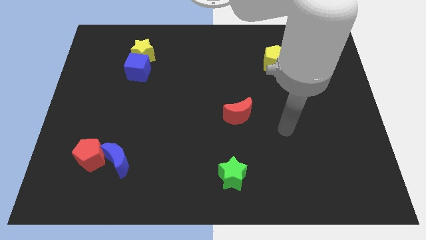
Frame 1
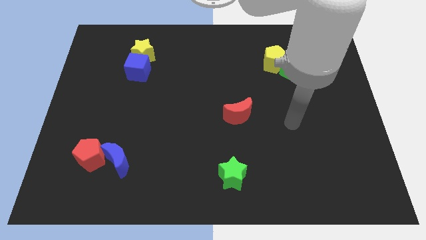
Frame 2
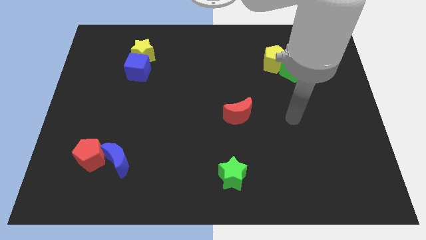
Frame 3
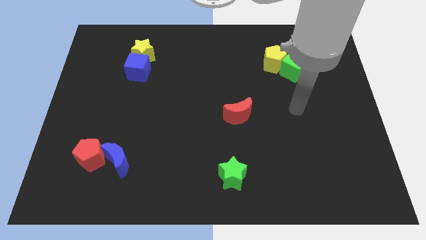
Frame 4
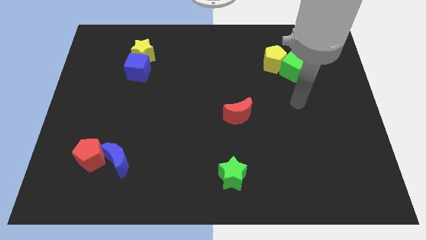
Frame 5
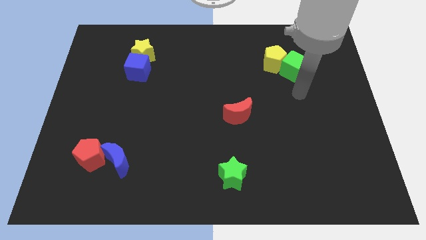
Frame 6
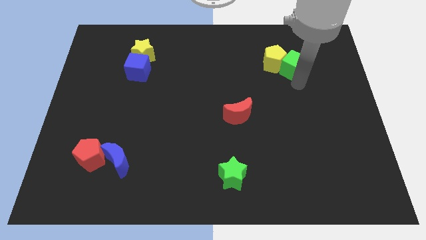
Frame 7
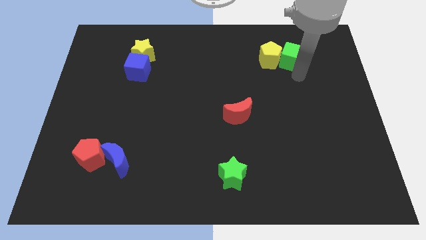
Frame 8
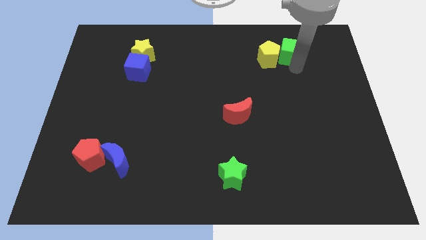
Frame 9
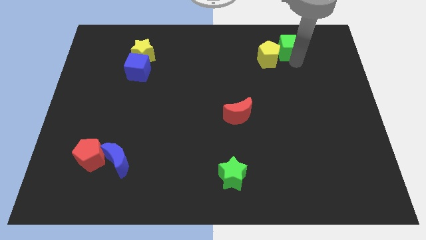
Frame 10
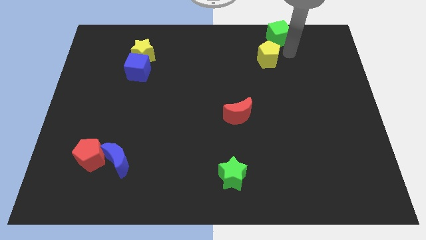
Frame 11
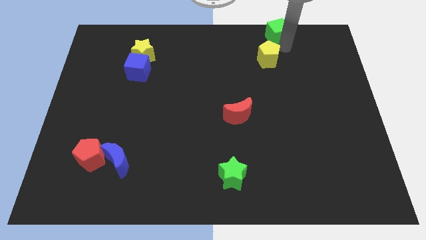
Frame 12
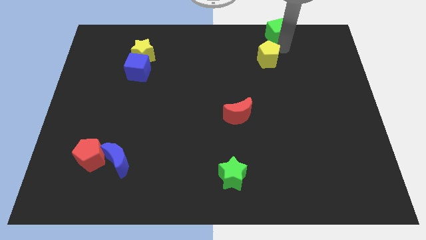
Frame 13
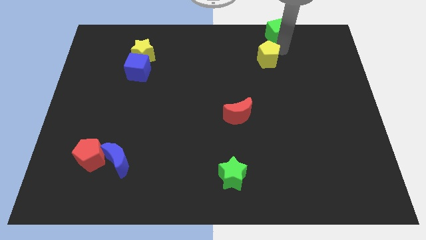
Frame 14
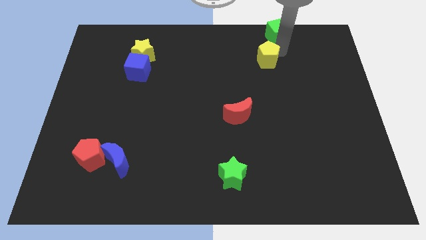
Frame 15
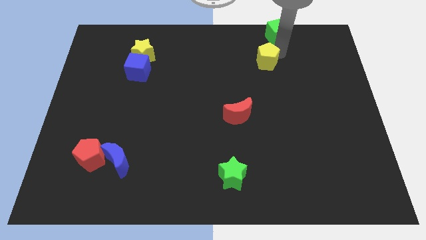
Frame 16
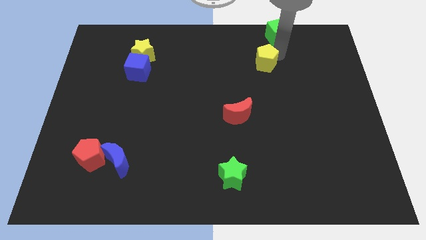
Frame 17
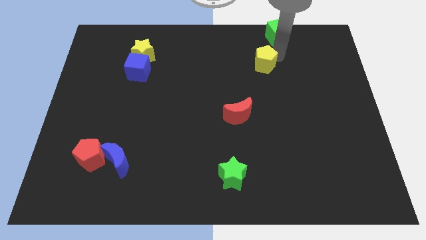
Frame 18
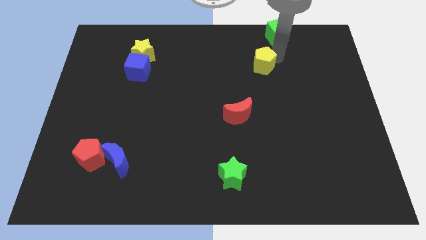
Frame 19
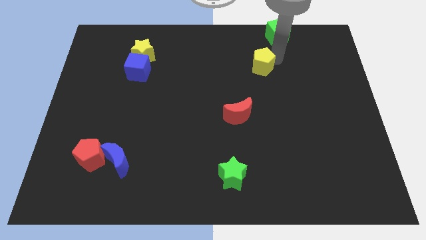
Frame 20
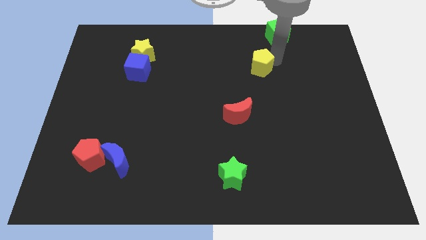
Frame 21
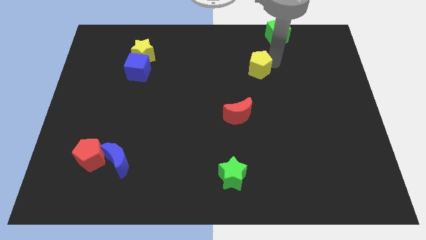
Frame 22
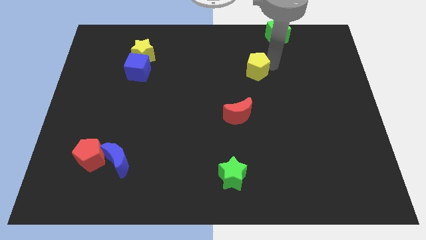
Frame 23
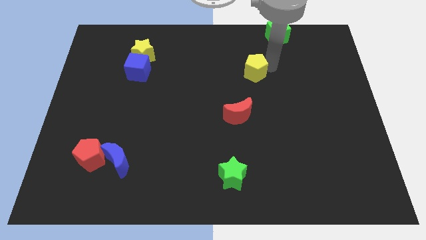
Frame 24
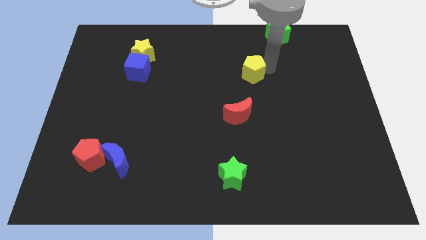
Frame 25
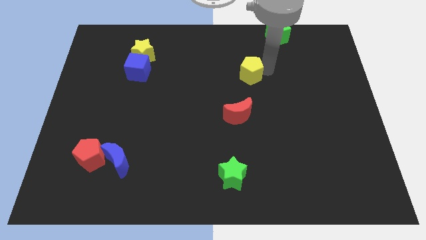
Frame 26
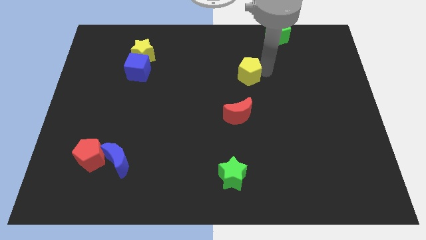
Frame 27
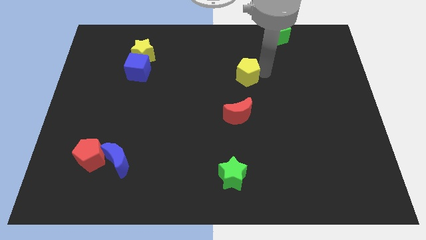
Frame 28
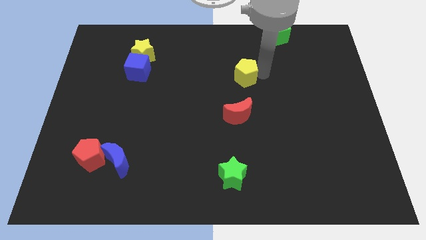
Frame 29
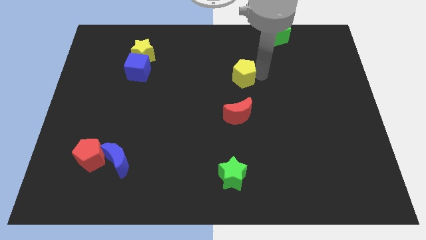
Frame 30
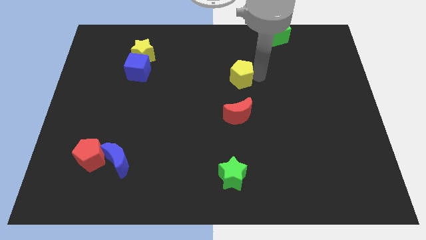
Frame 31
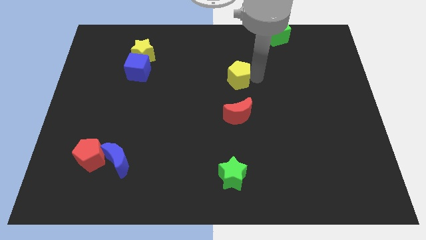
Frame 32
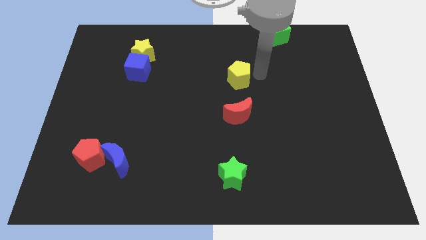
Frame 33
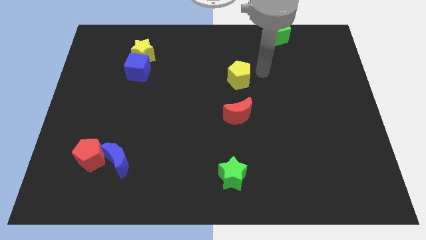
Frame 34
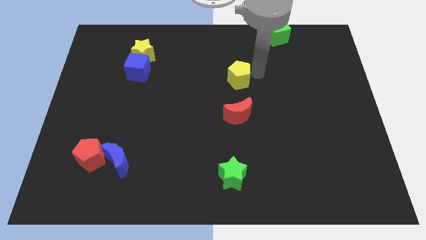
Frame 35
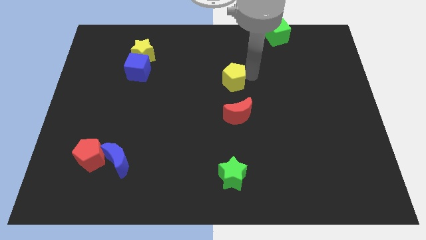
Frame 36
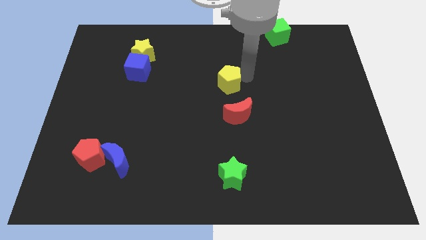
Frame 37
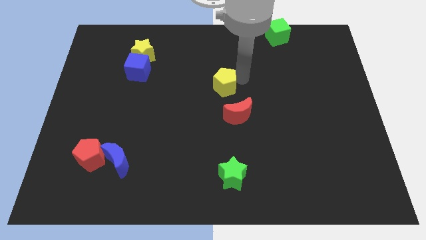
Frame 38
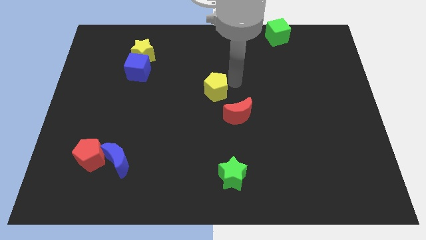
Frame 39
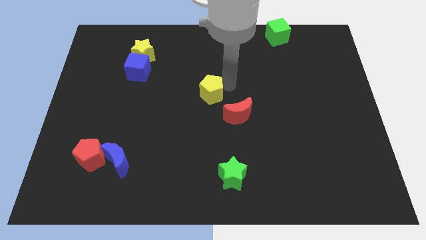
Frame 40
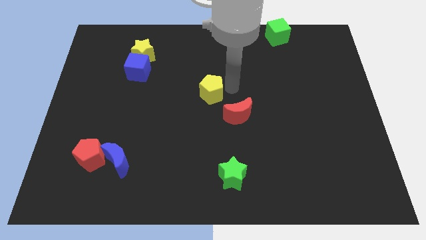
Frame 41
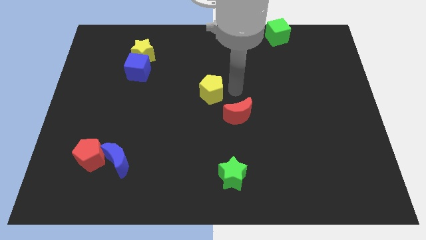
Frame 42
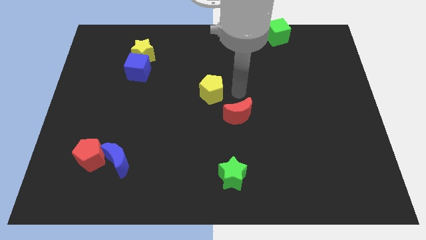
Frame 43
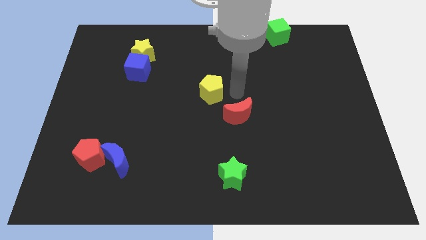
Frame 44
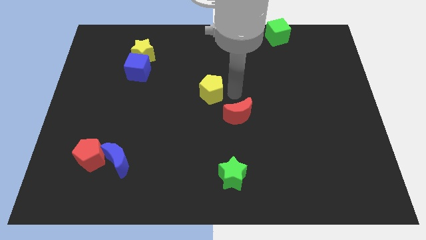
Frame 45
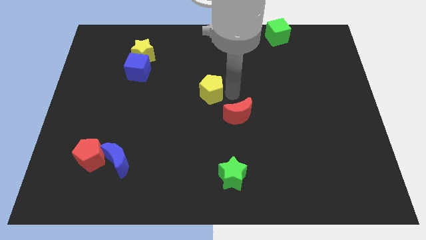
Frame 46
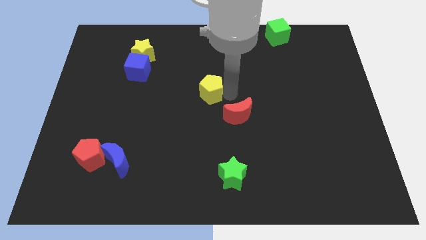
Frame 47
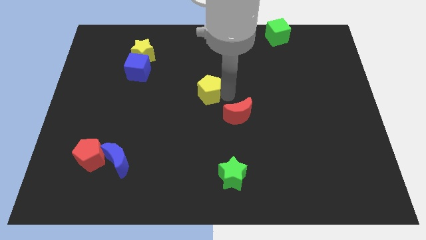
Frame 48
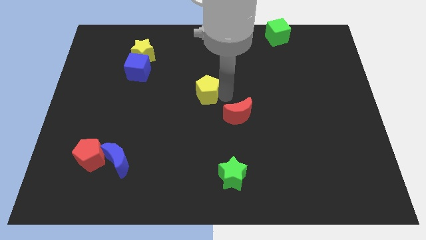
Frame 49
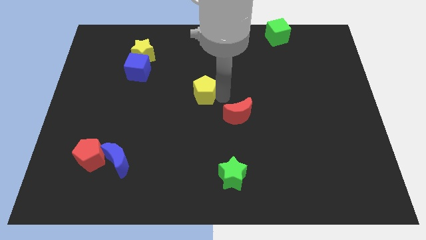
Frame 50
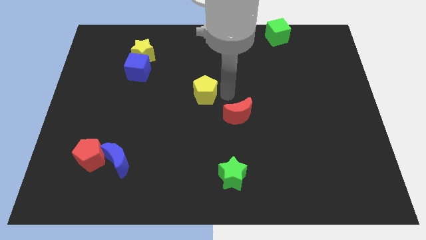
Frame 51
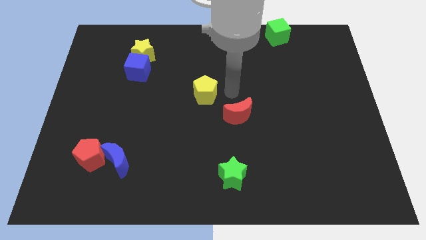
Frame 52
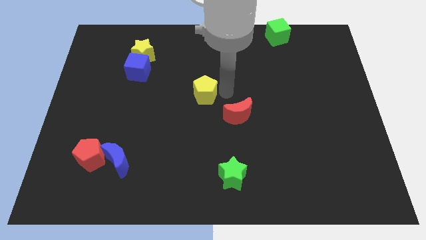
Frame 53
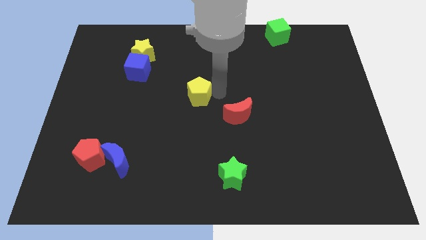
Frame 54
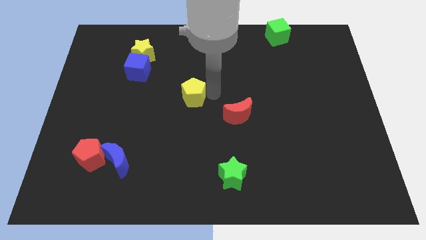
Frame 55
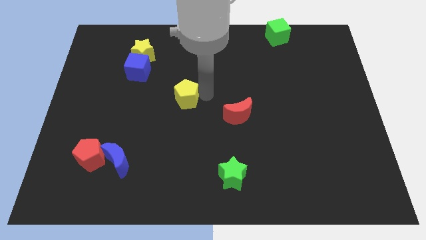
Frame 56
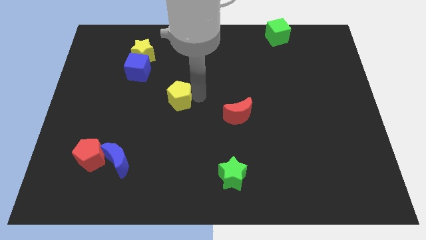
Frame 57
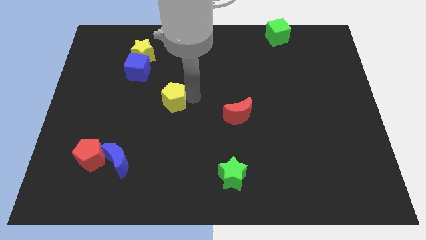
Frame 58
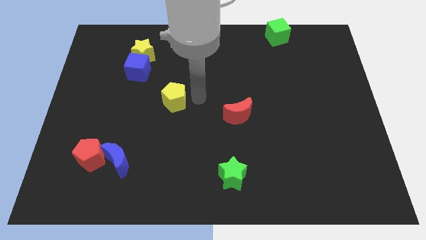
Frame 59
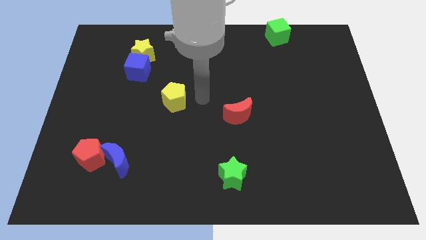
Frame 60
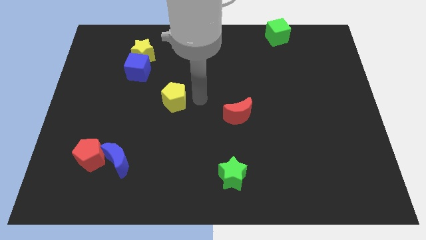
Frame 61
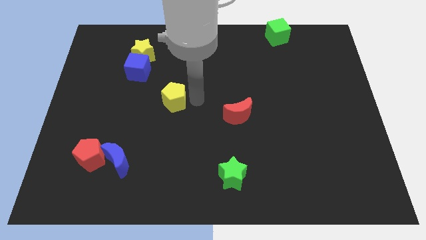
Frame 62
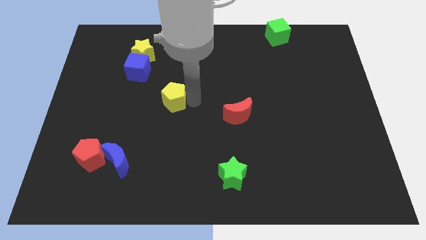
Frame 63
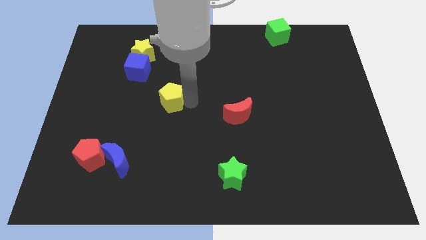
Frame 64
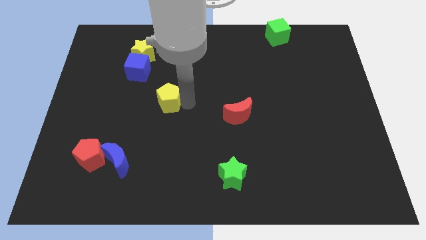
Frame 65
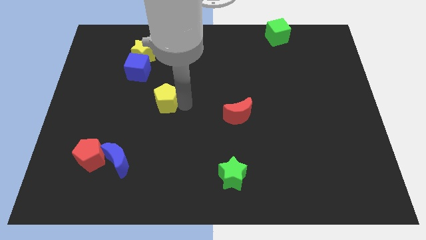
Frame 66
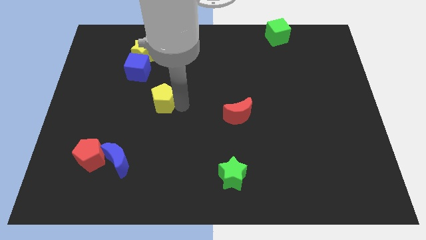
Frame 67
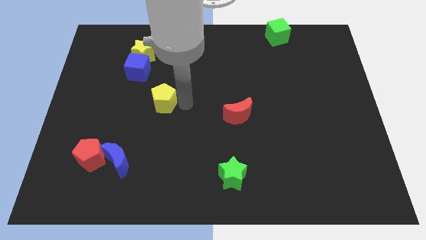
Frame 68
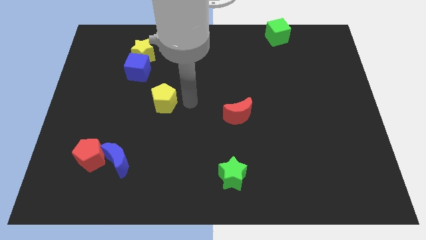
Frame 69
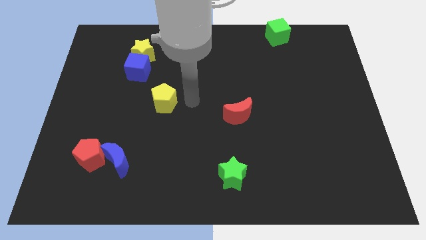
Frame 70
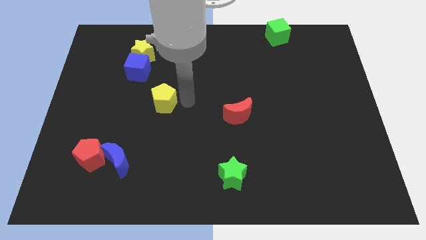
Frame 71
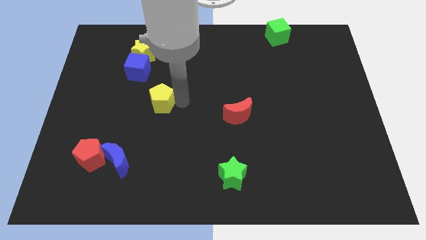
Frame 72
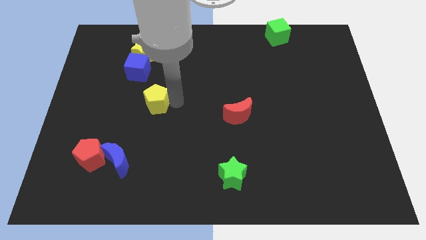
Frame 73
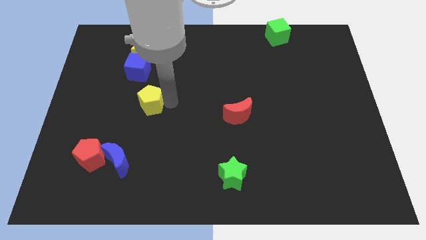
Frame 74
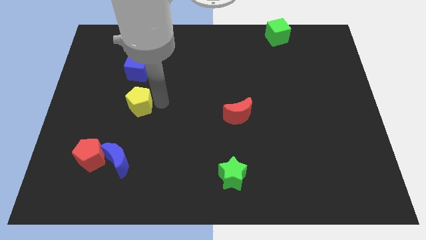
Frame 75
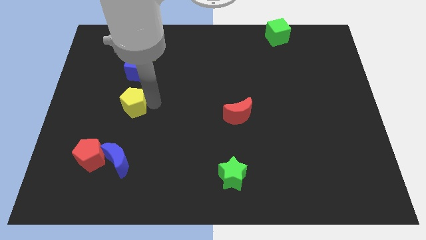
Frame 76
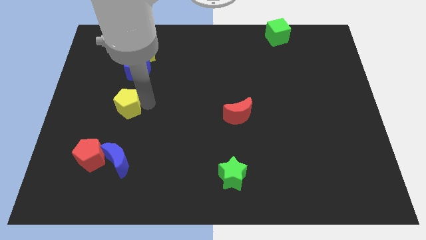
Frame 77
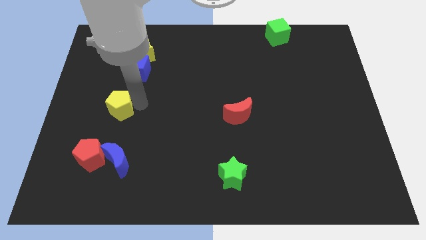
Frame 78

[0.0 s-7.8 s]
slide the yellow pentagon to the top of the red pentagon
